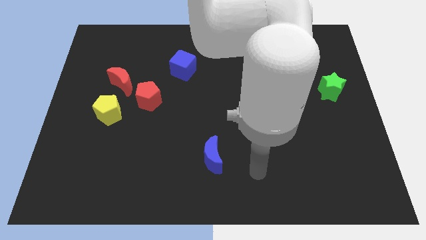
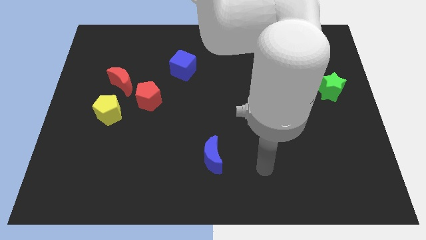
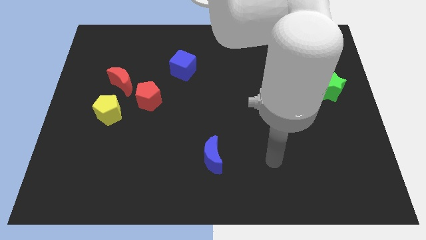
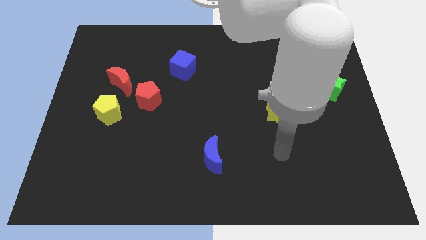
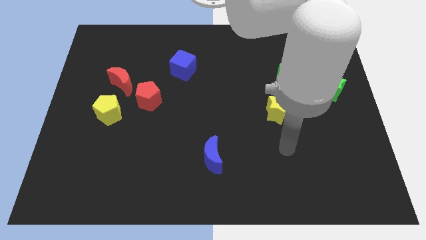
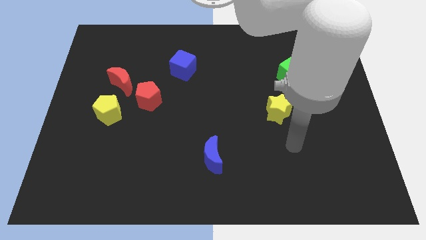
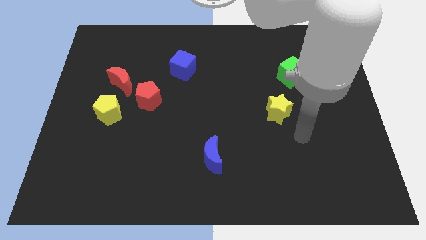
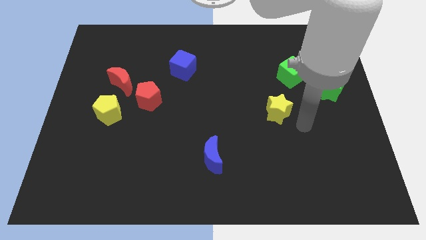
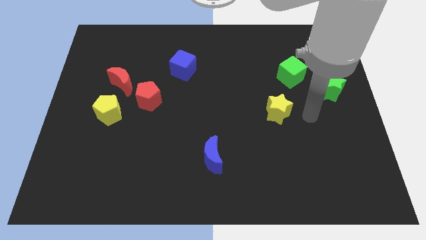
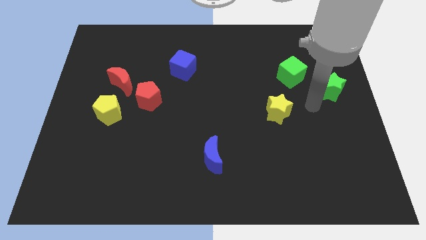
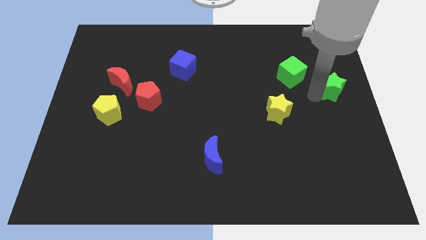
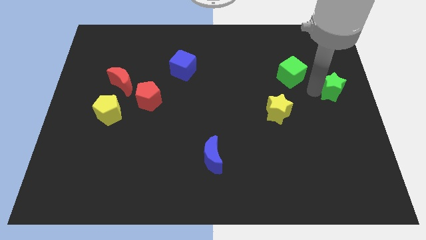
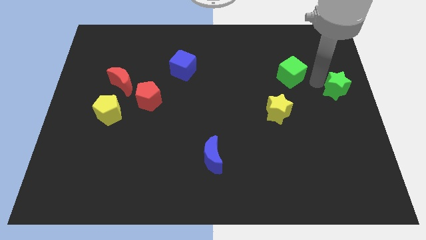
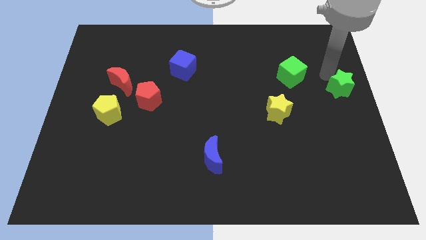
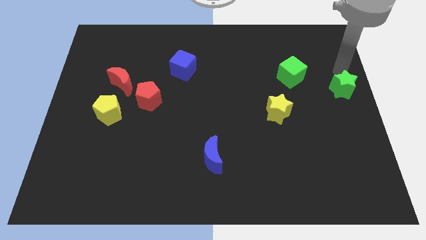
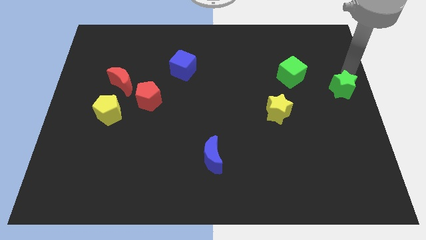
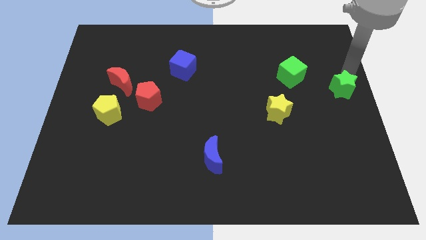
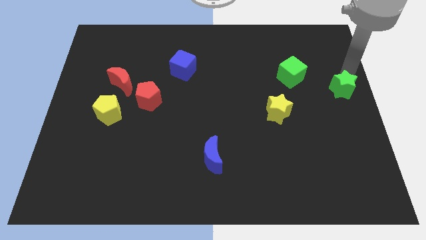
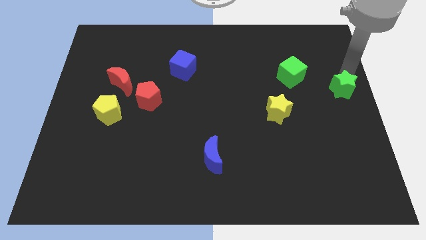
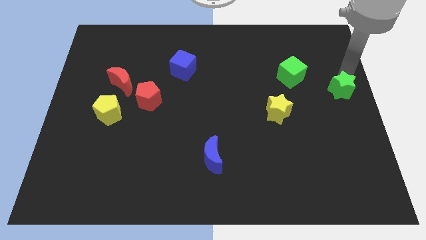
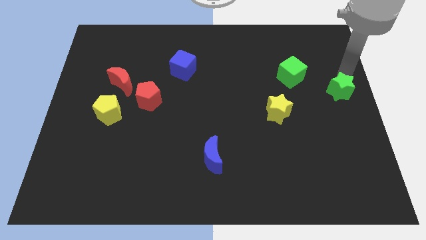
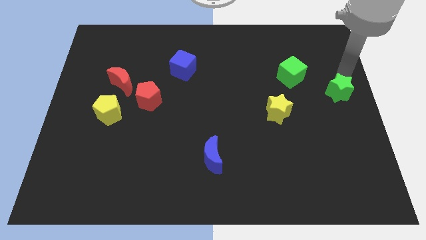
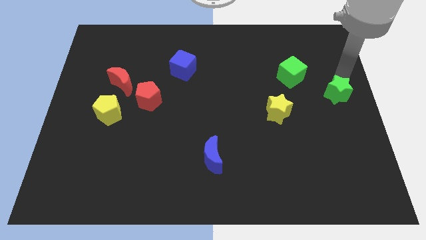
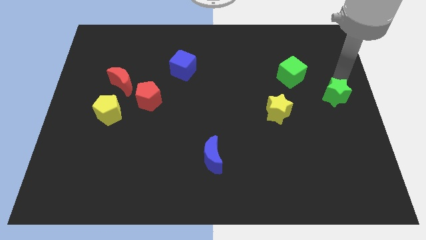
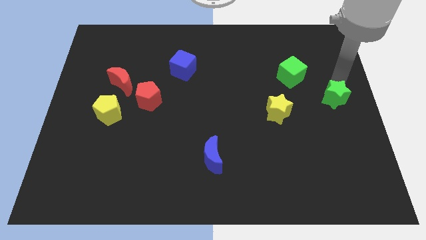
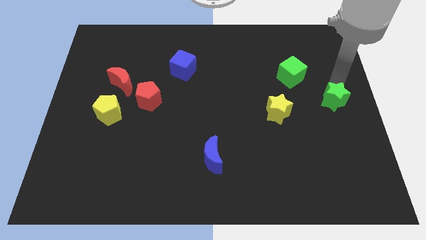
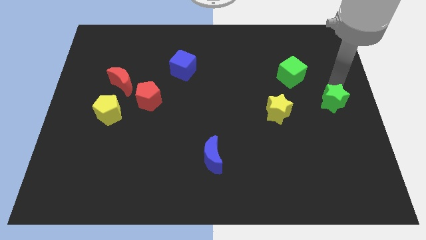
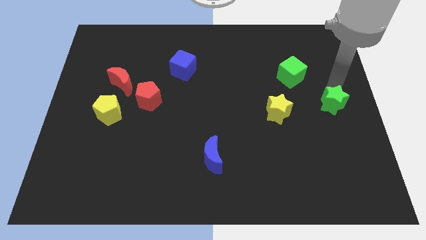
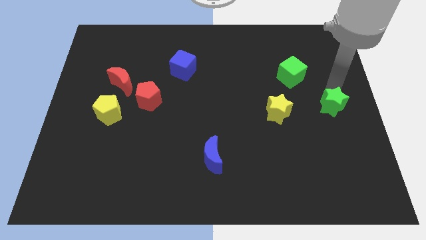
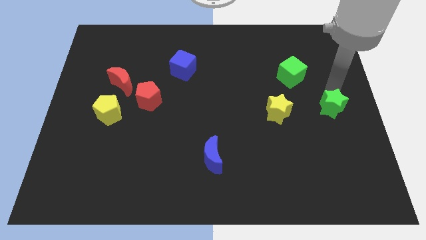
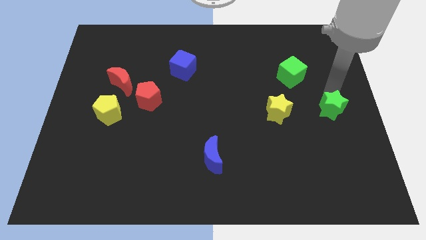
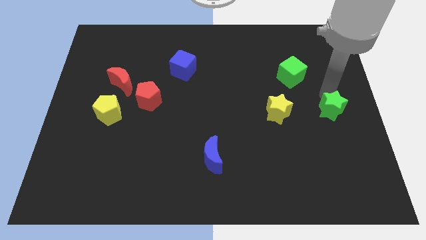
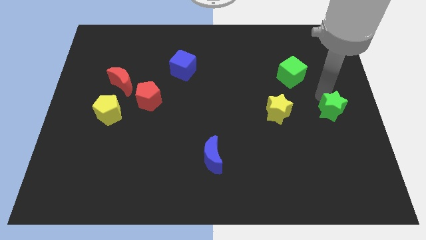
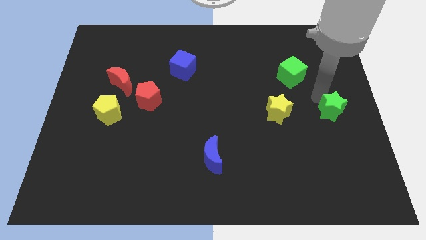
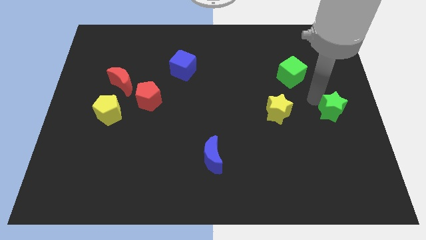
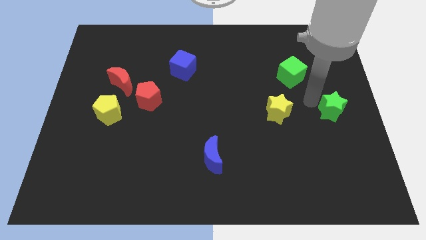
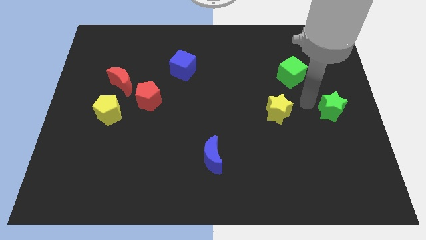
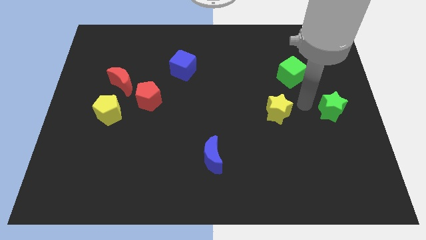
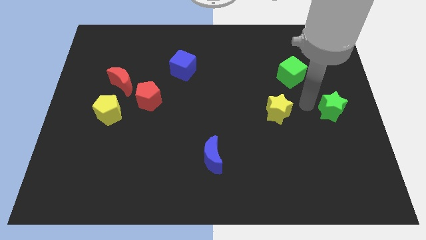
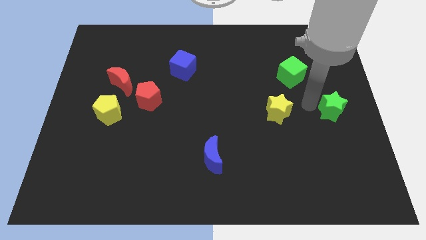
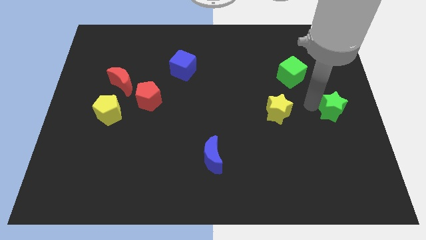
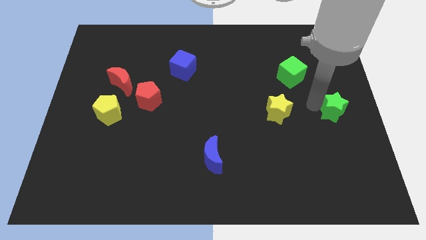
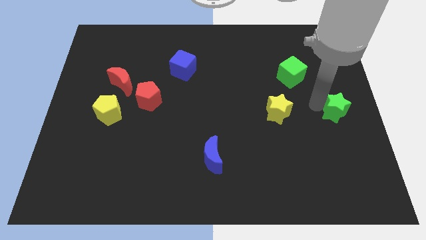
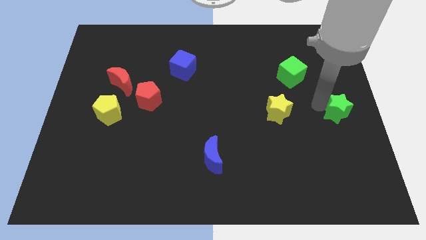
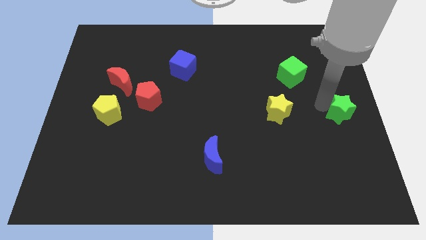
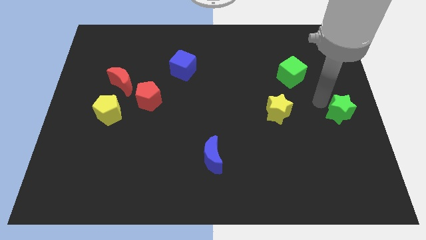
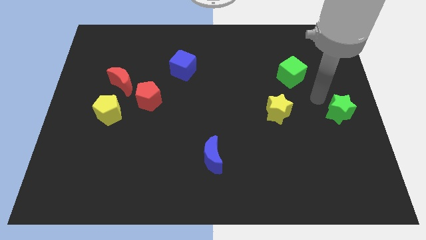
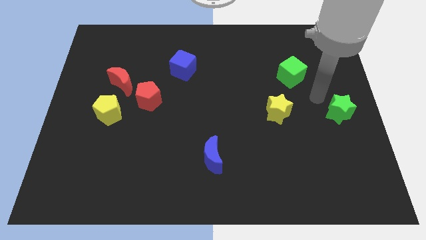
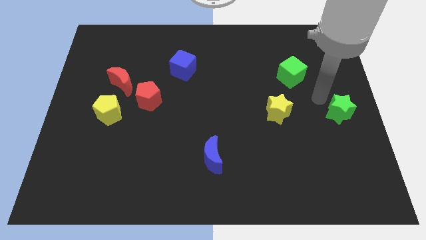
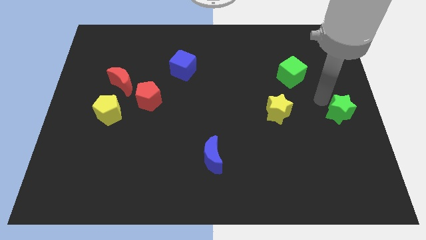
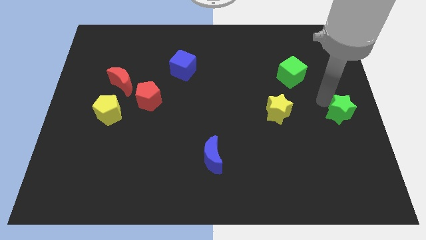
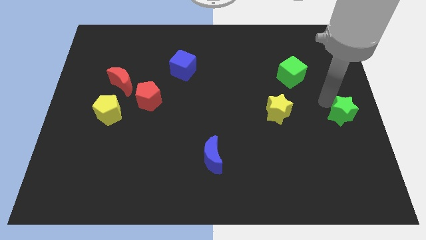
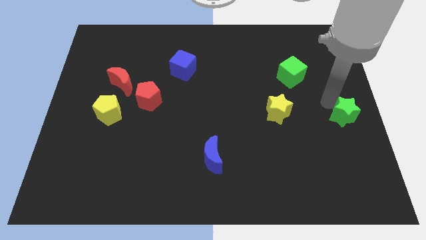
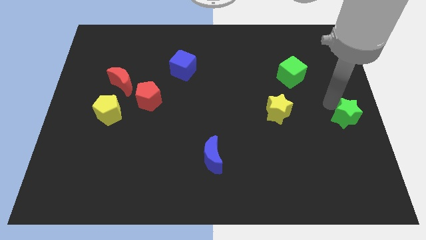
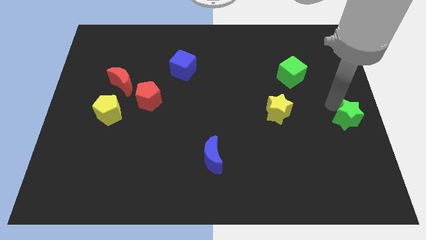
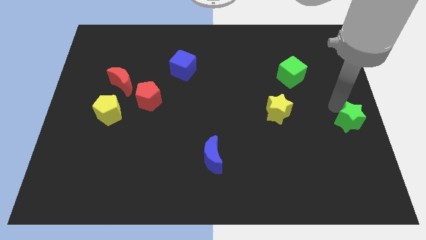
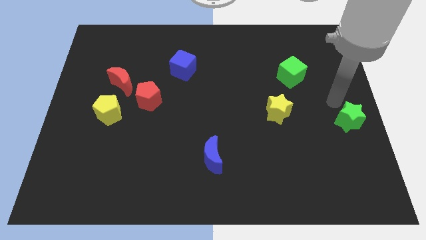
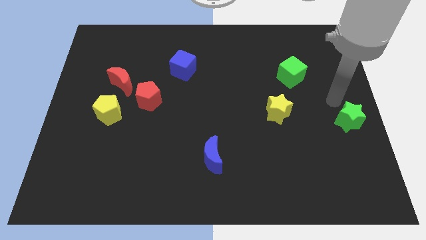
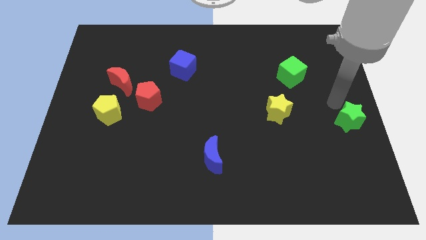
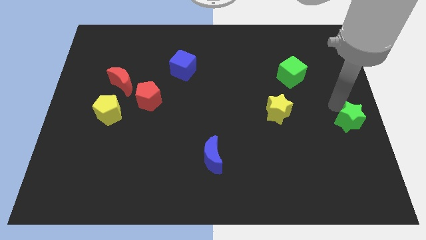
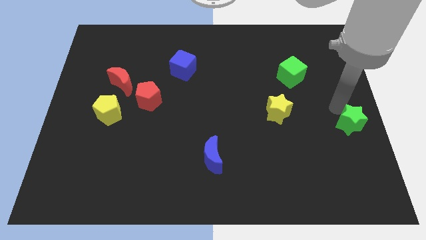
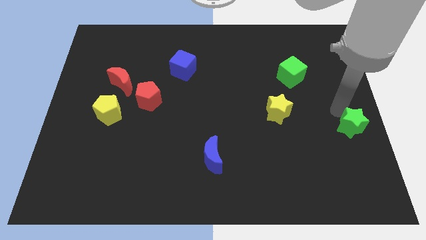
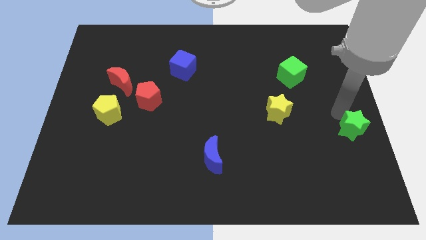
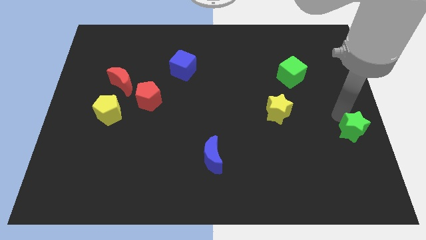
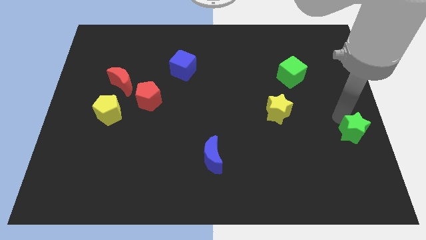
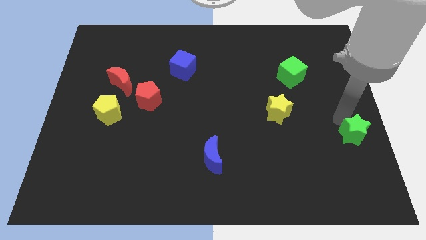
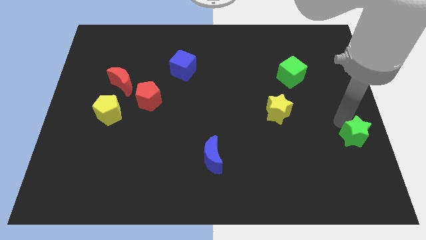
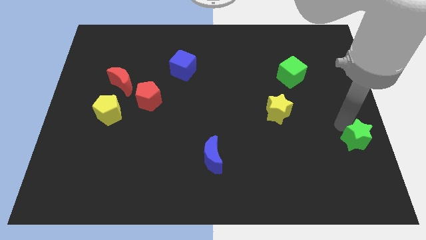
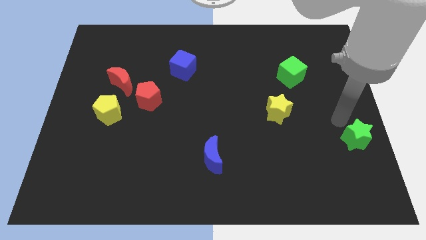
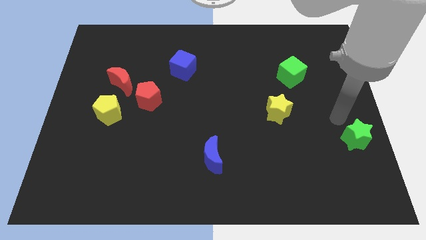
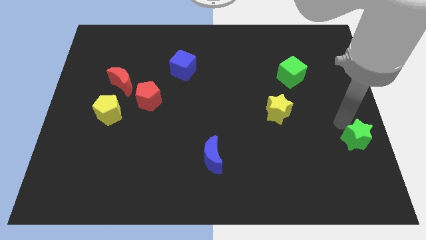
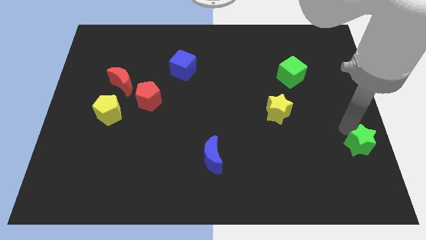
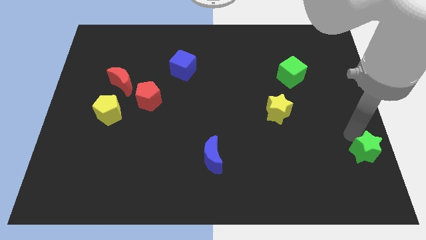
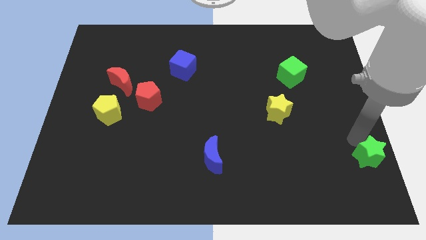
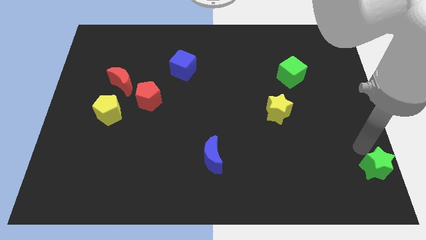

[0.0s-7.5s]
move the green star to the bottom right
